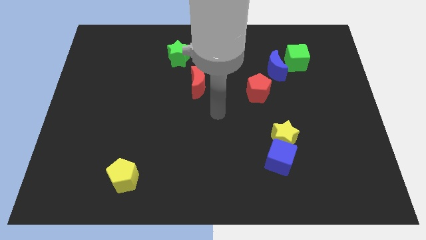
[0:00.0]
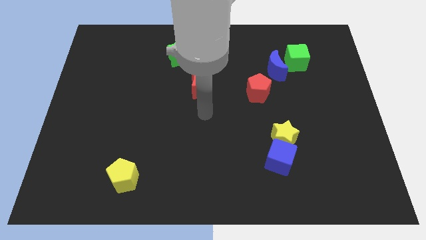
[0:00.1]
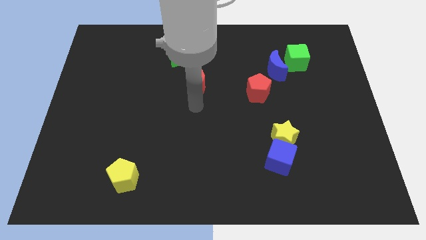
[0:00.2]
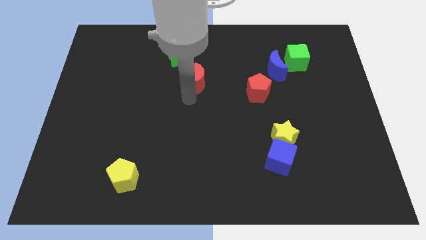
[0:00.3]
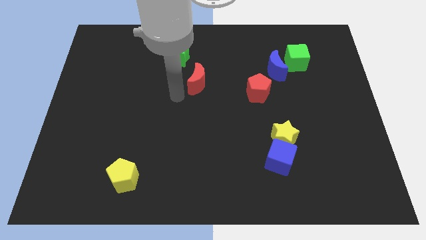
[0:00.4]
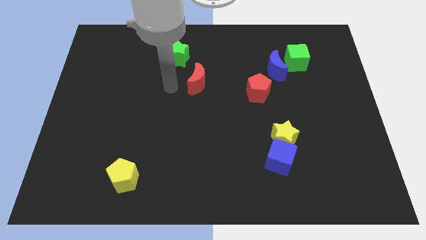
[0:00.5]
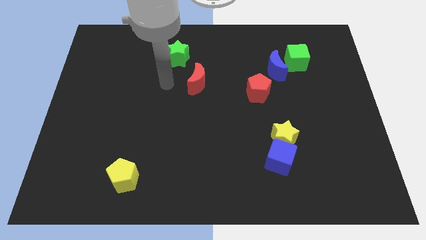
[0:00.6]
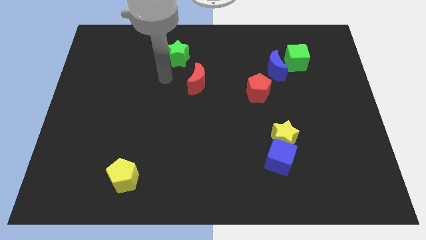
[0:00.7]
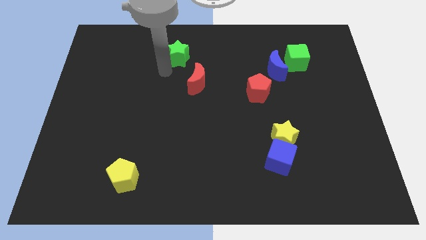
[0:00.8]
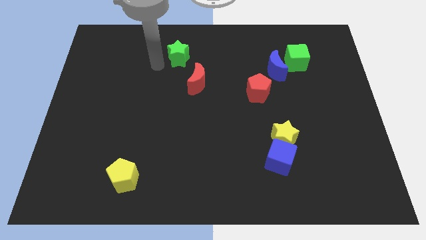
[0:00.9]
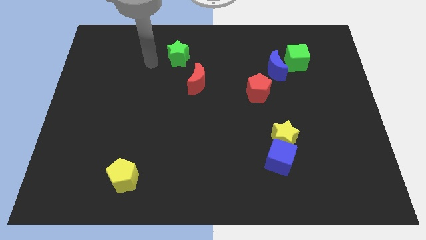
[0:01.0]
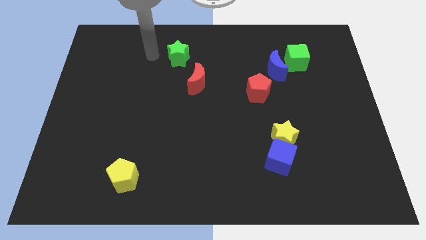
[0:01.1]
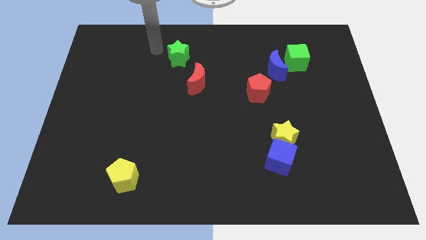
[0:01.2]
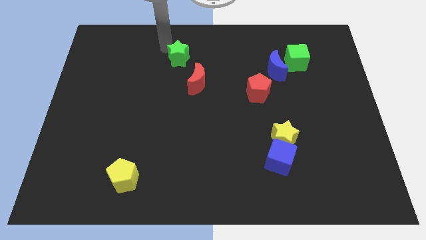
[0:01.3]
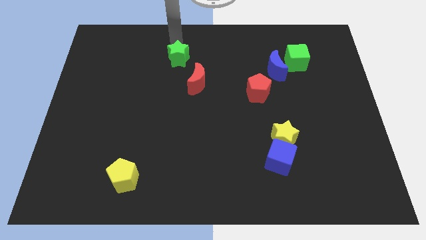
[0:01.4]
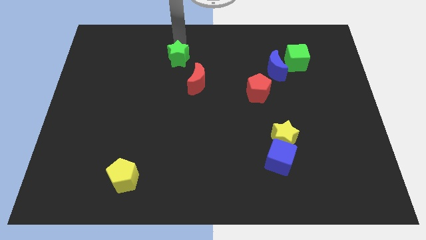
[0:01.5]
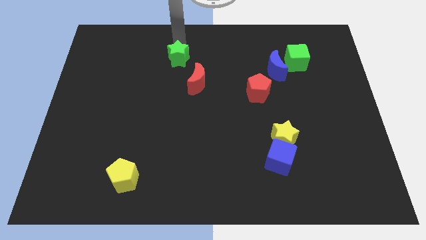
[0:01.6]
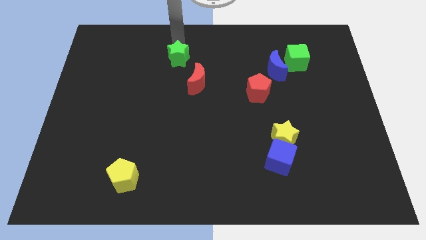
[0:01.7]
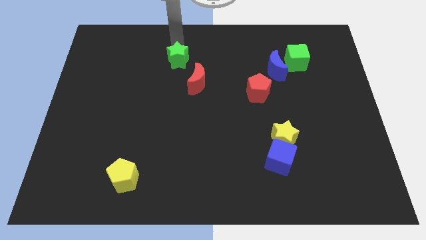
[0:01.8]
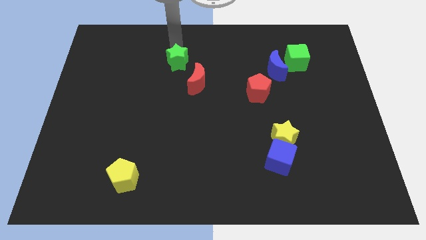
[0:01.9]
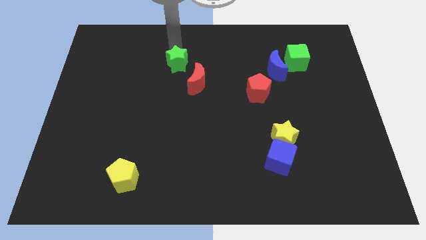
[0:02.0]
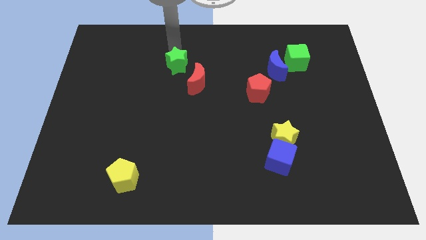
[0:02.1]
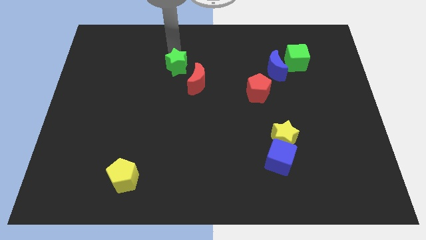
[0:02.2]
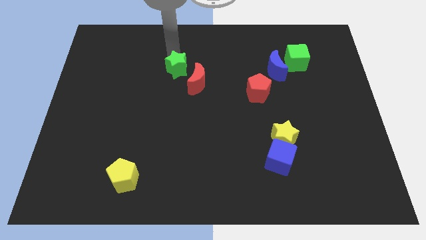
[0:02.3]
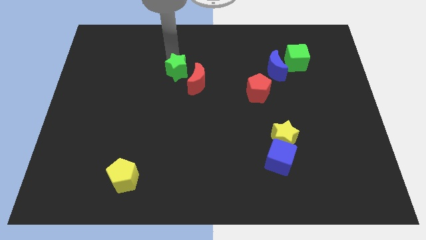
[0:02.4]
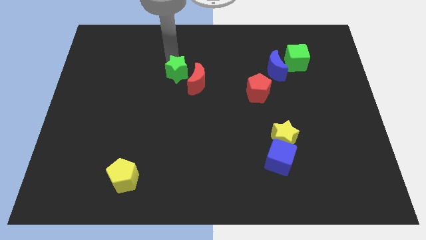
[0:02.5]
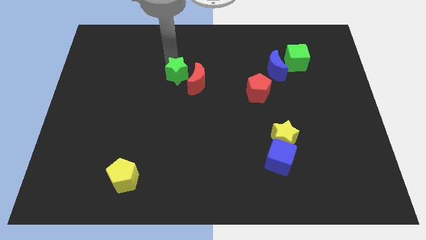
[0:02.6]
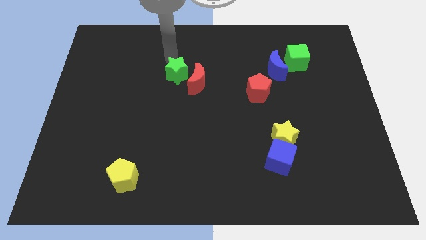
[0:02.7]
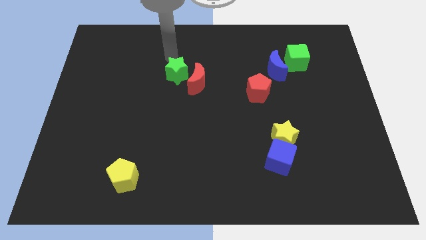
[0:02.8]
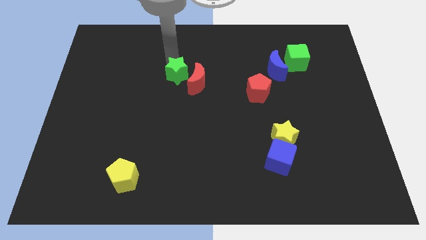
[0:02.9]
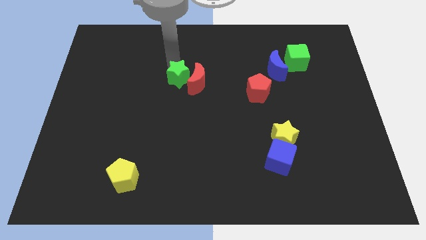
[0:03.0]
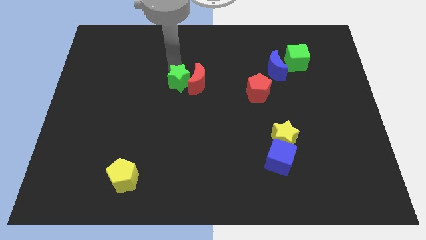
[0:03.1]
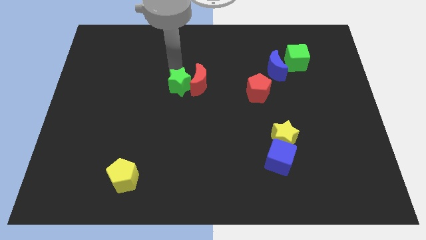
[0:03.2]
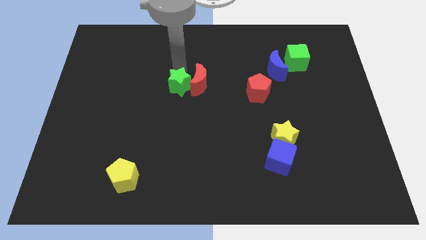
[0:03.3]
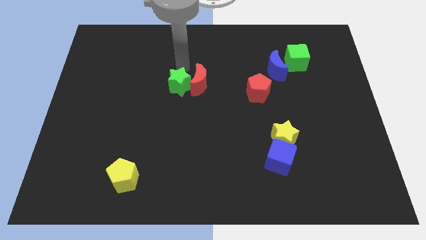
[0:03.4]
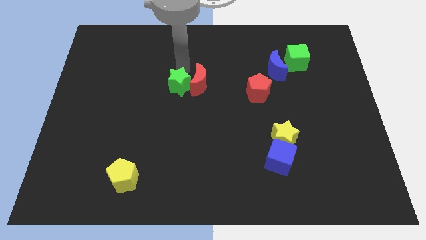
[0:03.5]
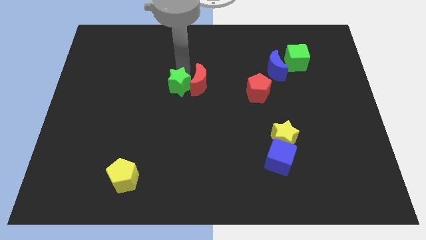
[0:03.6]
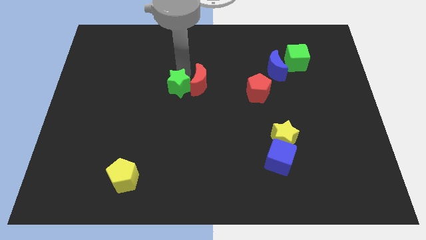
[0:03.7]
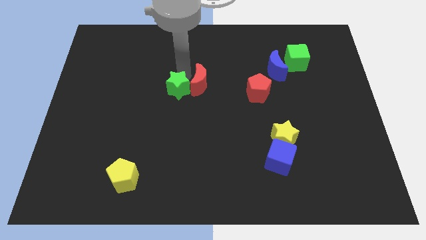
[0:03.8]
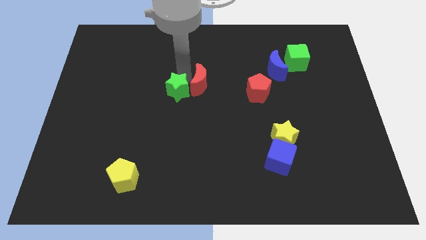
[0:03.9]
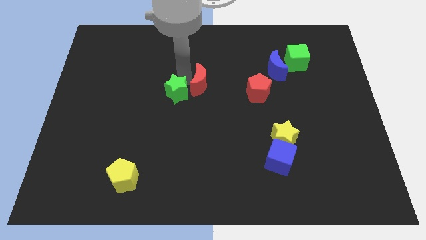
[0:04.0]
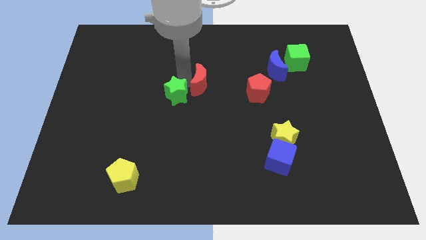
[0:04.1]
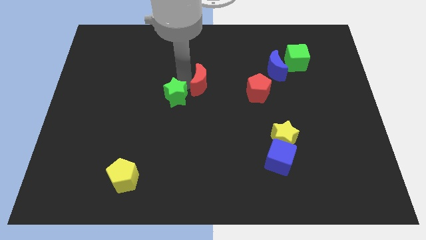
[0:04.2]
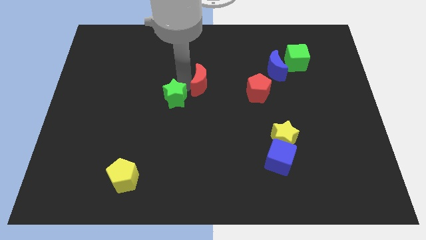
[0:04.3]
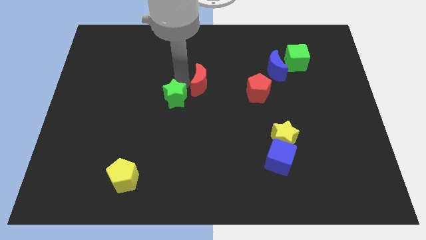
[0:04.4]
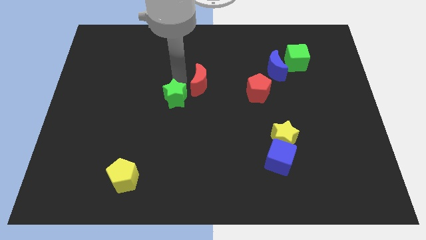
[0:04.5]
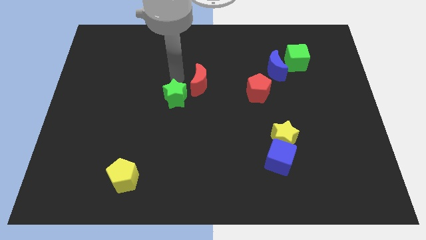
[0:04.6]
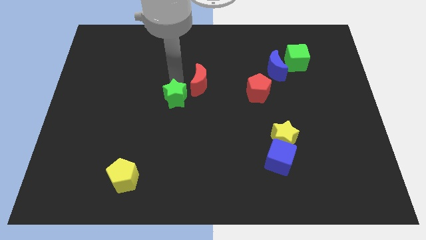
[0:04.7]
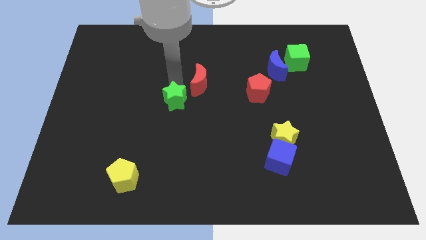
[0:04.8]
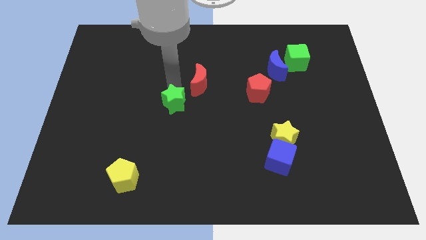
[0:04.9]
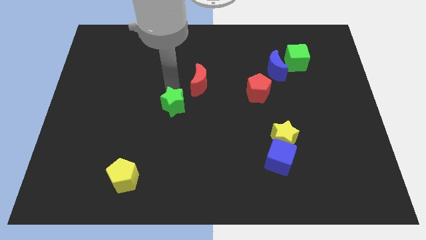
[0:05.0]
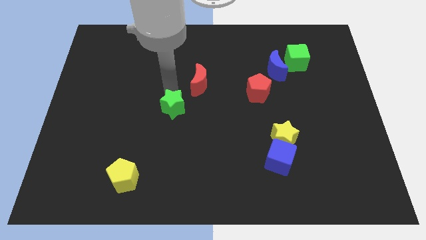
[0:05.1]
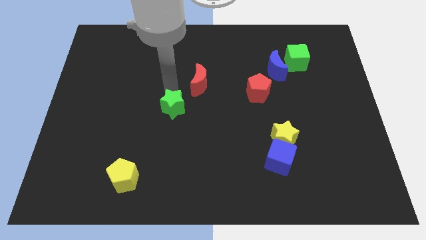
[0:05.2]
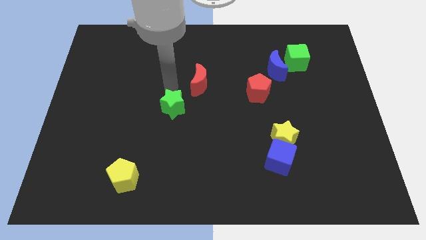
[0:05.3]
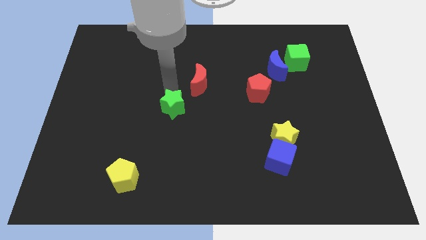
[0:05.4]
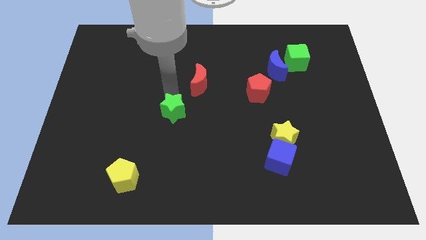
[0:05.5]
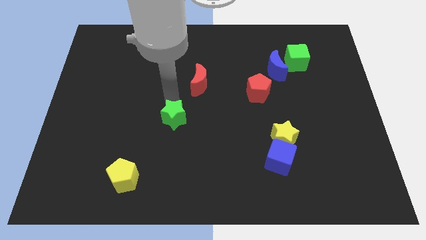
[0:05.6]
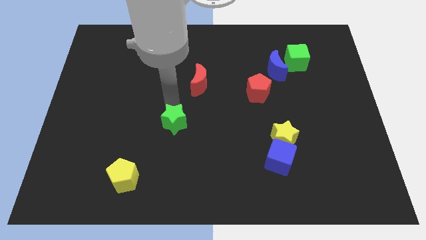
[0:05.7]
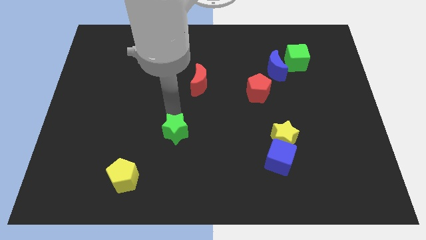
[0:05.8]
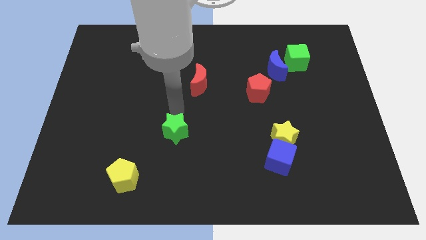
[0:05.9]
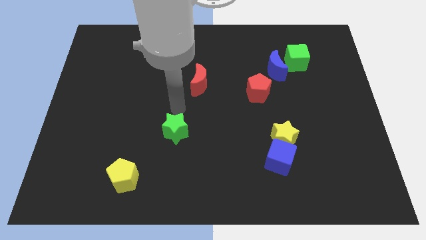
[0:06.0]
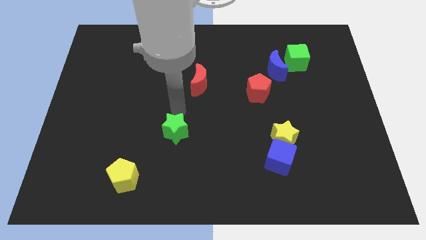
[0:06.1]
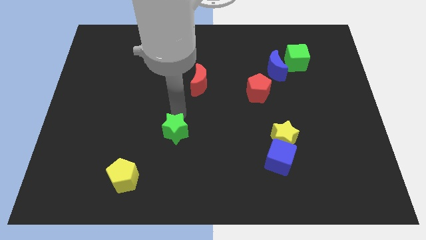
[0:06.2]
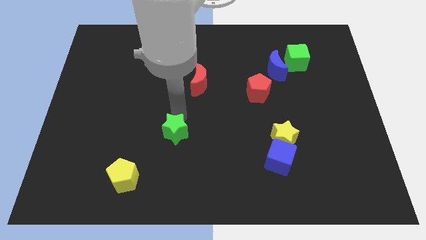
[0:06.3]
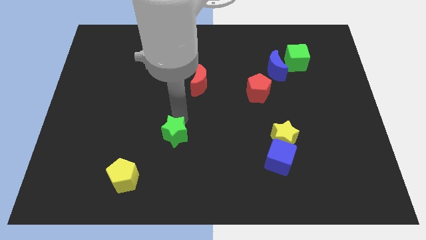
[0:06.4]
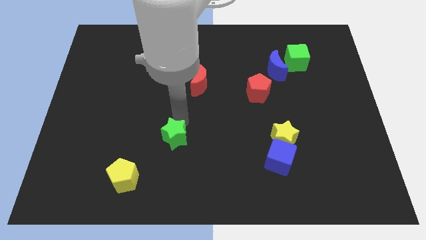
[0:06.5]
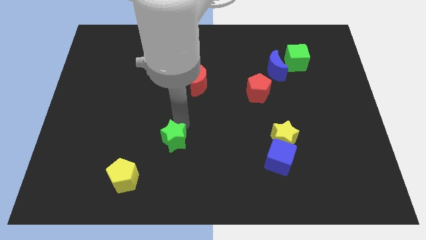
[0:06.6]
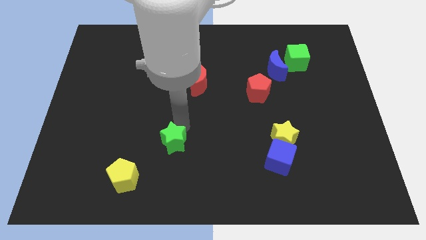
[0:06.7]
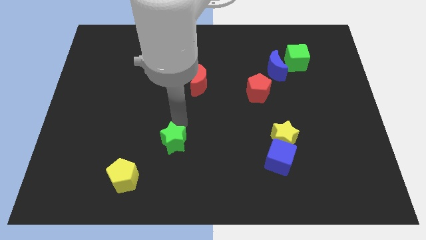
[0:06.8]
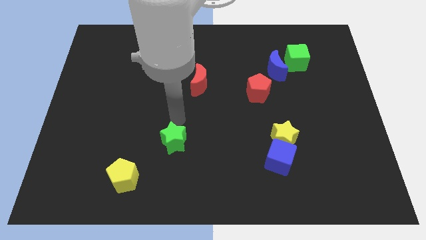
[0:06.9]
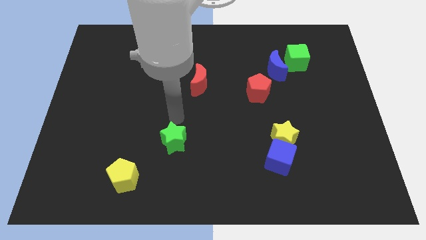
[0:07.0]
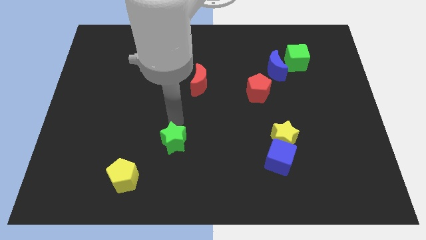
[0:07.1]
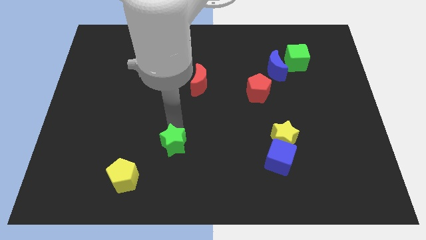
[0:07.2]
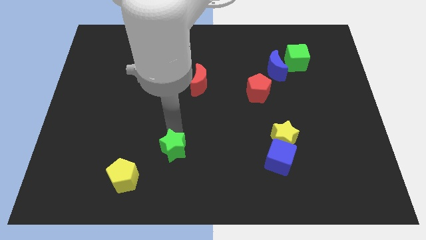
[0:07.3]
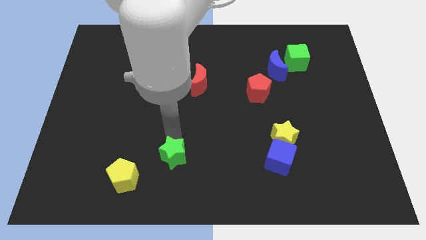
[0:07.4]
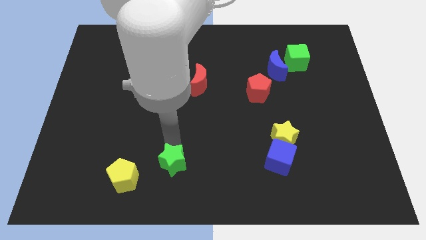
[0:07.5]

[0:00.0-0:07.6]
put the green star right of the yellow pentagon

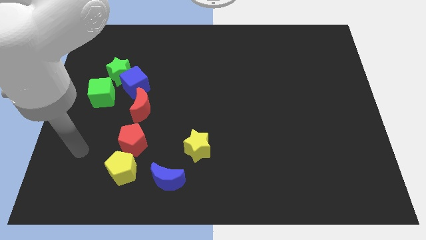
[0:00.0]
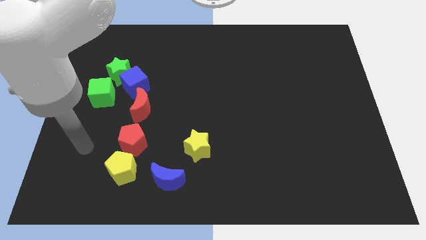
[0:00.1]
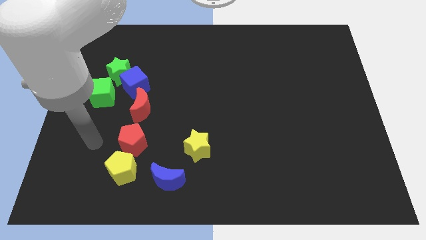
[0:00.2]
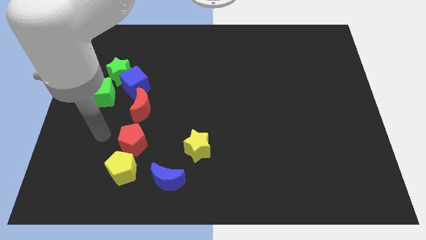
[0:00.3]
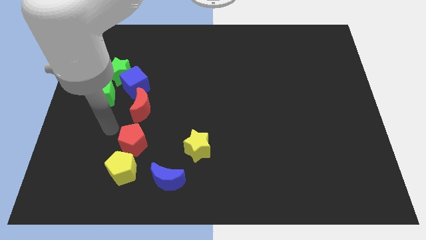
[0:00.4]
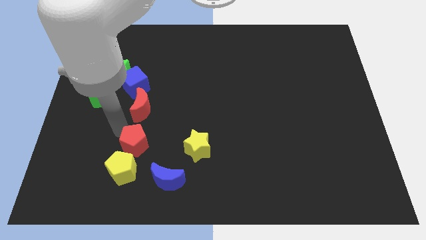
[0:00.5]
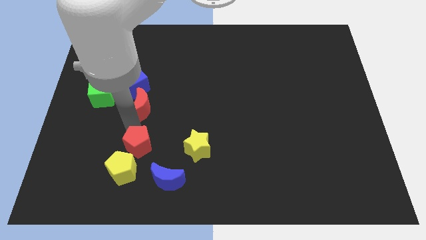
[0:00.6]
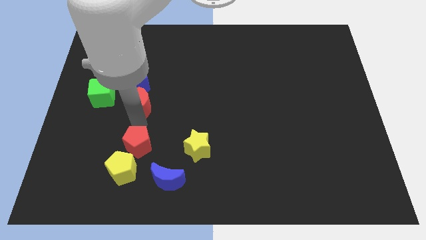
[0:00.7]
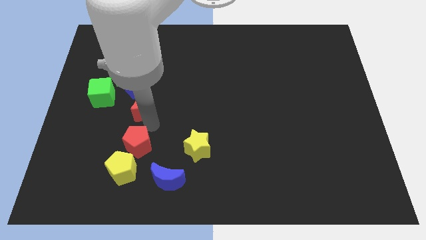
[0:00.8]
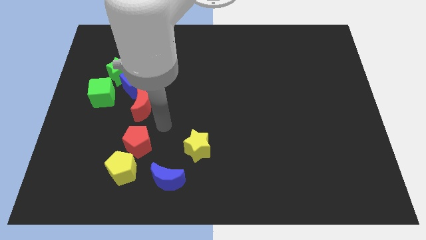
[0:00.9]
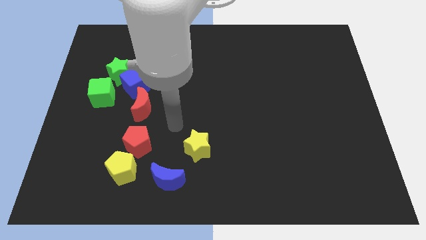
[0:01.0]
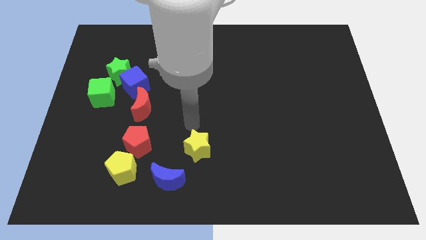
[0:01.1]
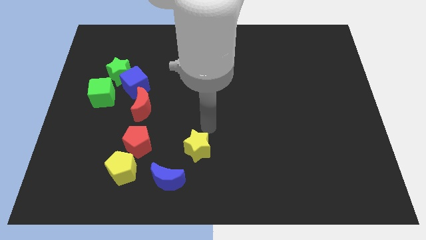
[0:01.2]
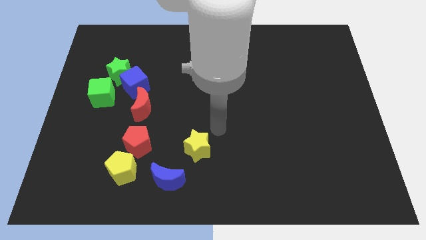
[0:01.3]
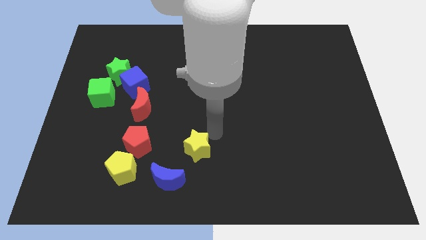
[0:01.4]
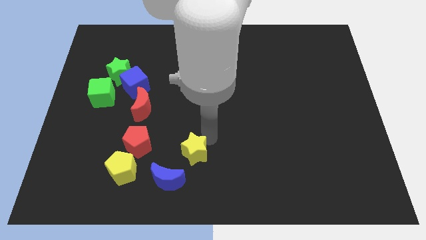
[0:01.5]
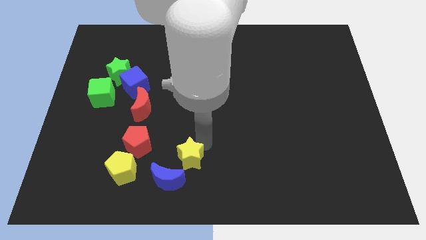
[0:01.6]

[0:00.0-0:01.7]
move the yellow star to the right side of the yellow pentagon
